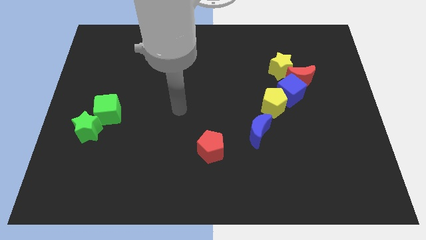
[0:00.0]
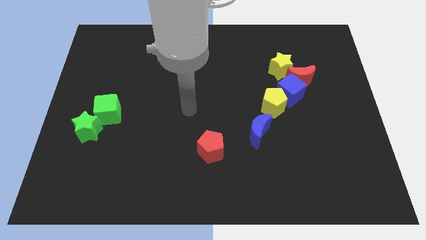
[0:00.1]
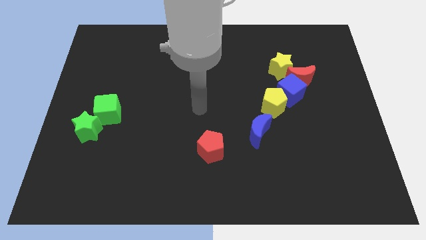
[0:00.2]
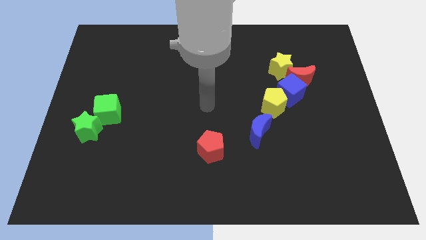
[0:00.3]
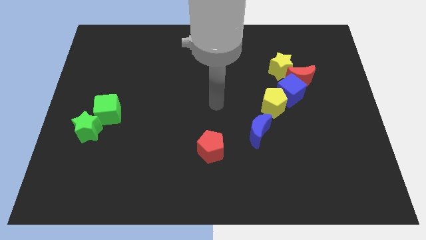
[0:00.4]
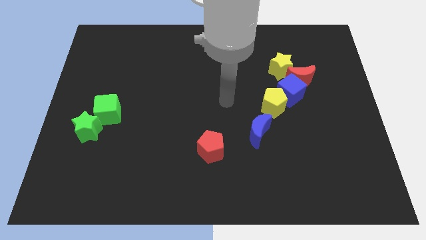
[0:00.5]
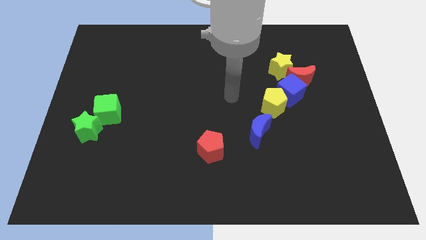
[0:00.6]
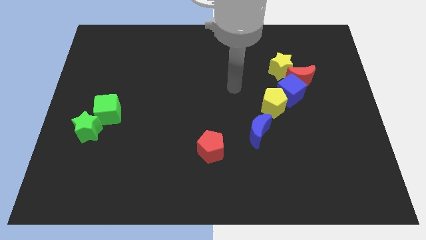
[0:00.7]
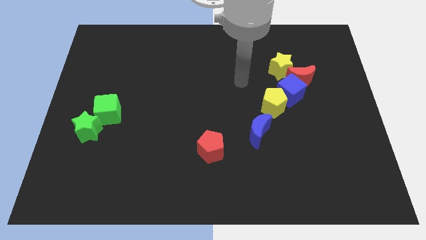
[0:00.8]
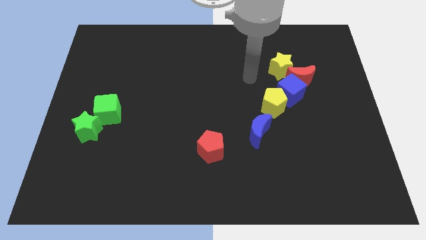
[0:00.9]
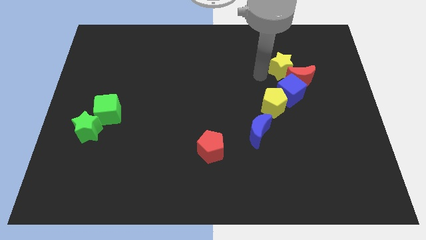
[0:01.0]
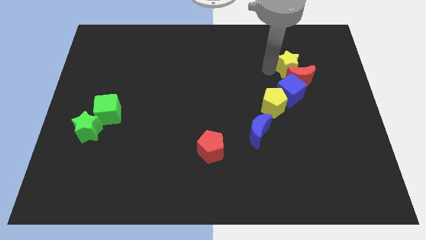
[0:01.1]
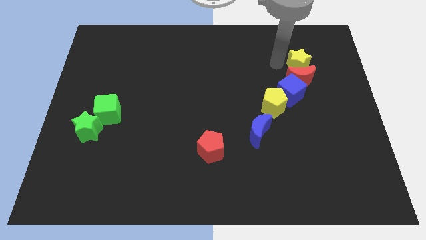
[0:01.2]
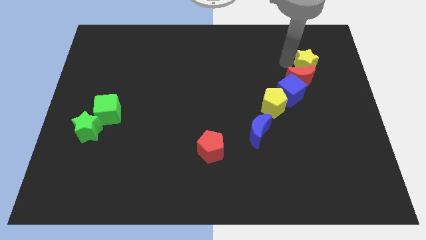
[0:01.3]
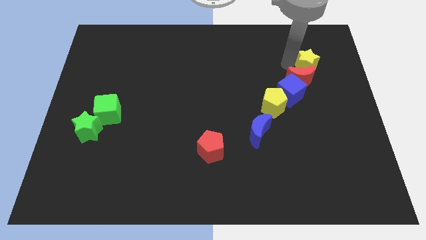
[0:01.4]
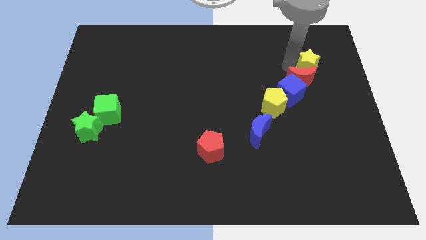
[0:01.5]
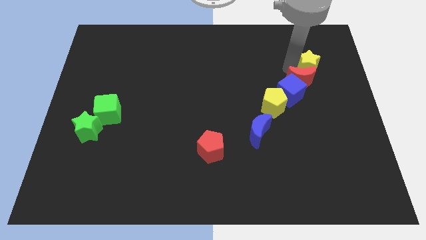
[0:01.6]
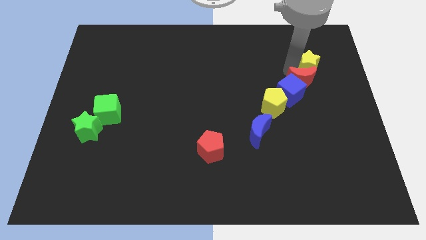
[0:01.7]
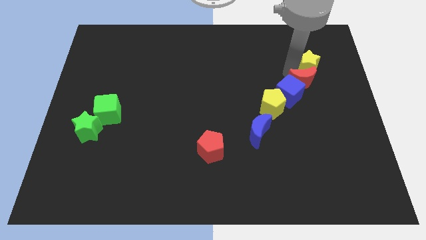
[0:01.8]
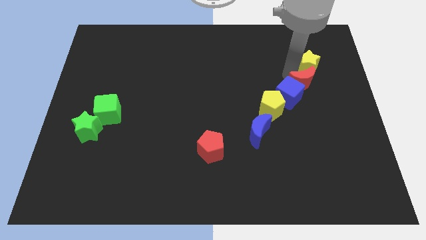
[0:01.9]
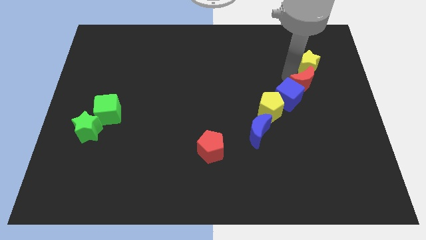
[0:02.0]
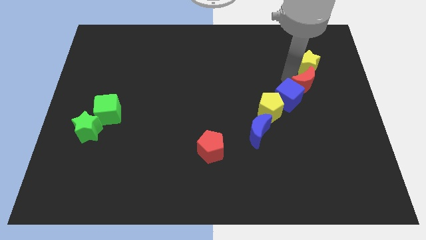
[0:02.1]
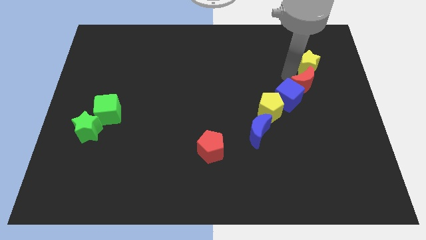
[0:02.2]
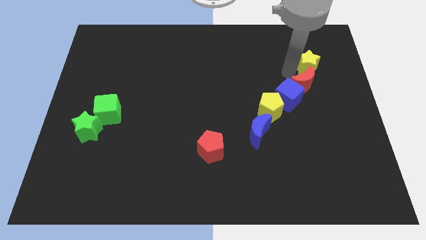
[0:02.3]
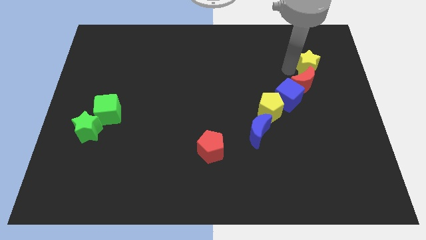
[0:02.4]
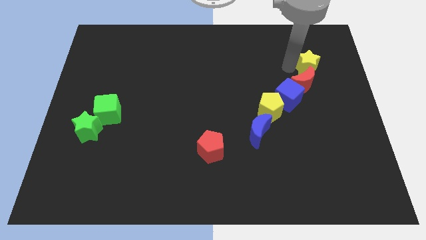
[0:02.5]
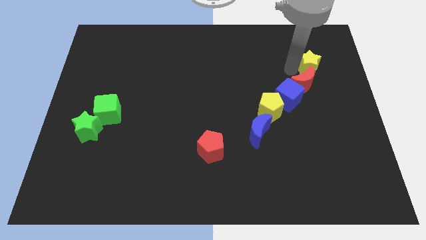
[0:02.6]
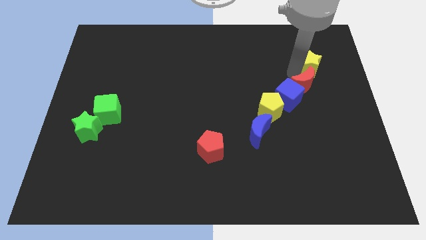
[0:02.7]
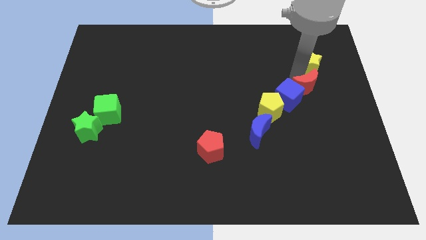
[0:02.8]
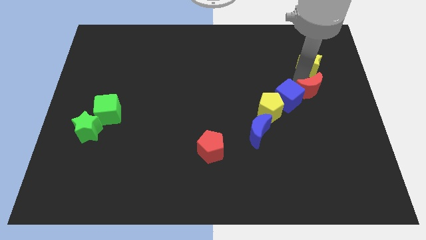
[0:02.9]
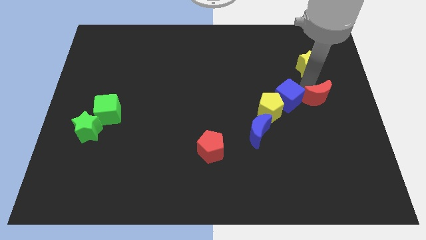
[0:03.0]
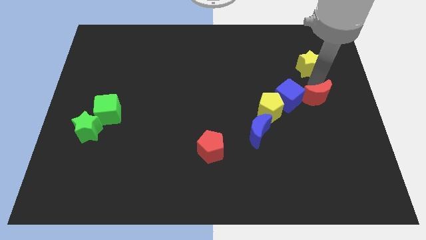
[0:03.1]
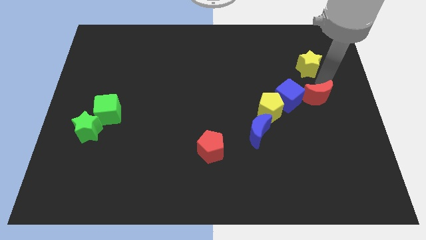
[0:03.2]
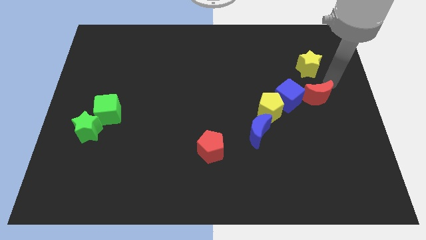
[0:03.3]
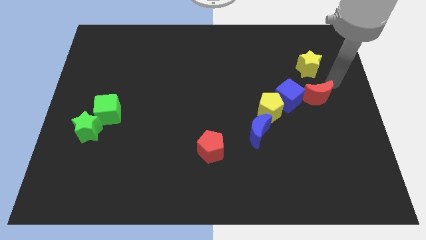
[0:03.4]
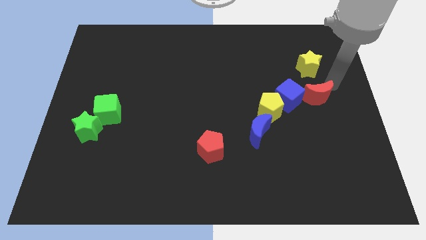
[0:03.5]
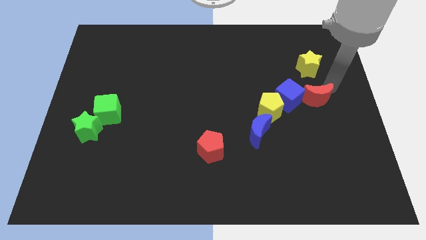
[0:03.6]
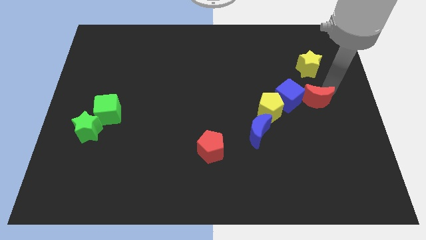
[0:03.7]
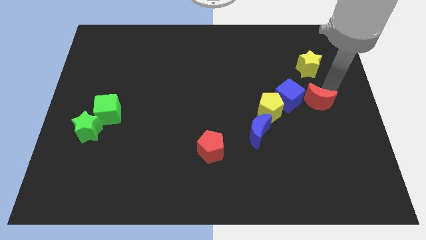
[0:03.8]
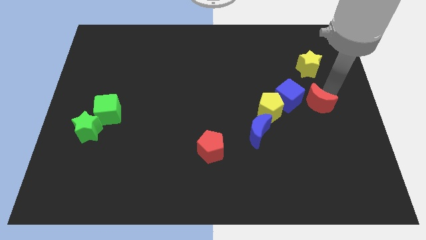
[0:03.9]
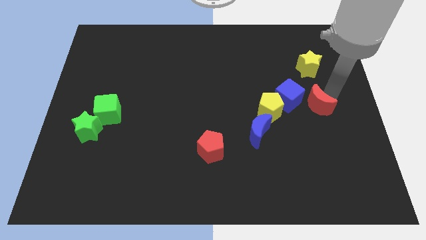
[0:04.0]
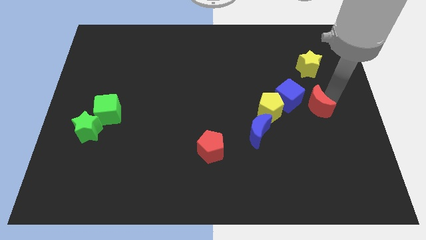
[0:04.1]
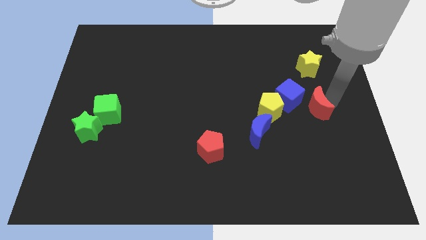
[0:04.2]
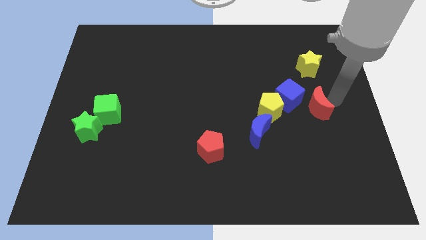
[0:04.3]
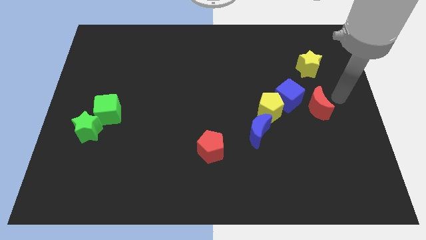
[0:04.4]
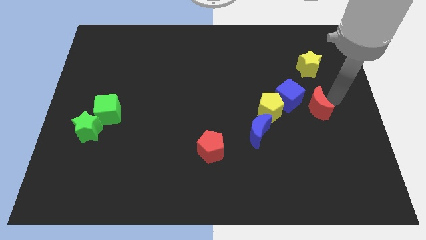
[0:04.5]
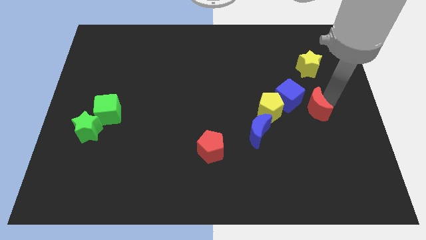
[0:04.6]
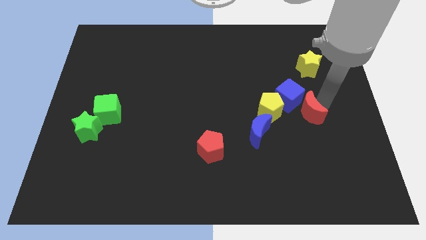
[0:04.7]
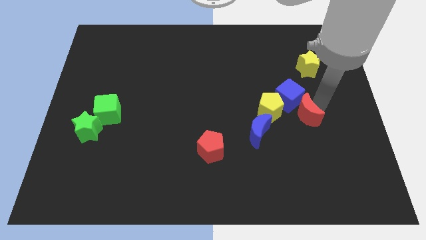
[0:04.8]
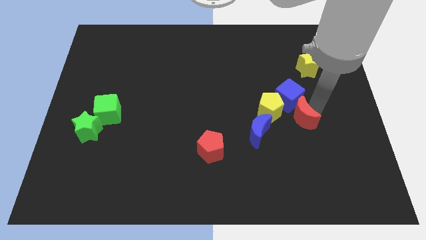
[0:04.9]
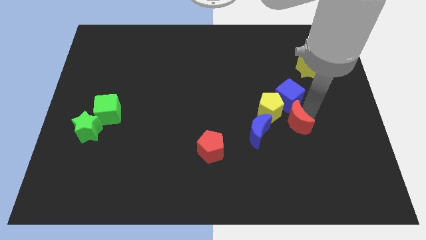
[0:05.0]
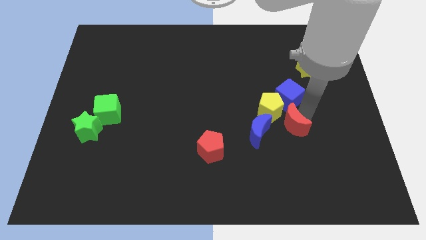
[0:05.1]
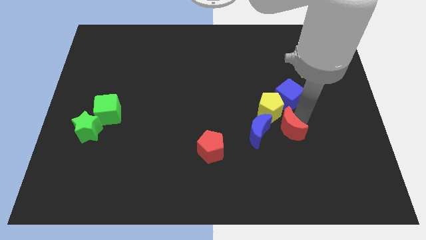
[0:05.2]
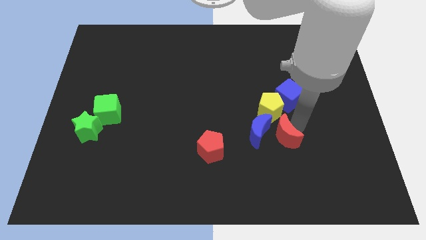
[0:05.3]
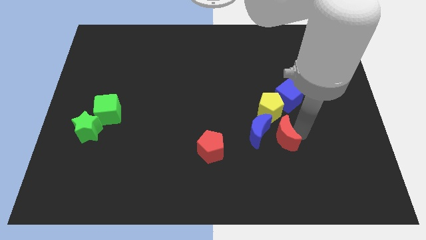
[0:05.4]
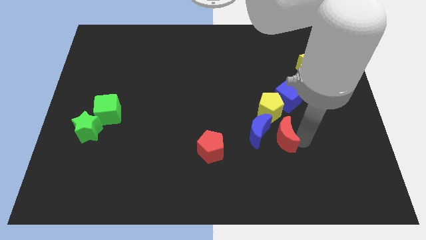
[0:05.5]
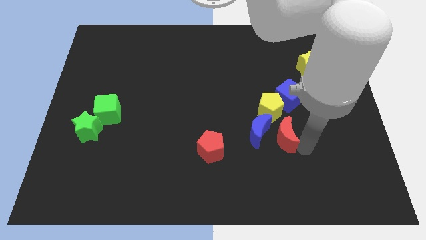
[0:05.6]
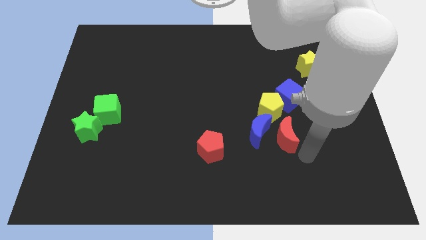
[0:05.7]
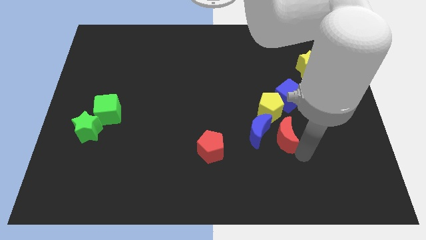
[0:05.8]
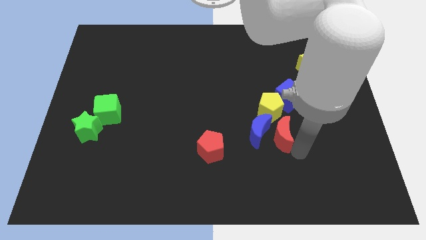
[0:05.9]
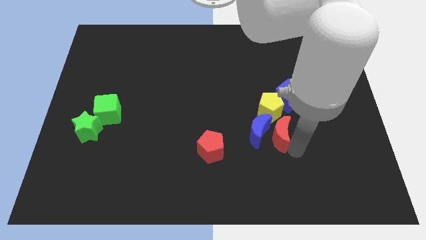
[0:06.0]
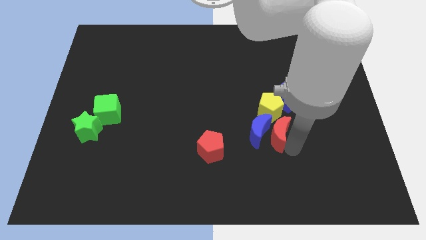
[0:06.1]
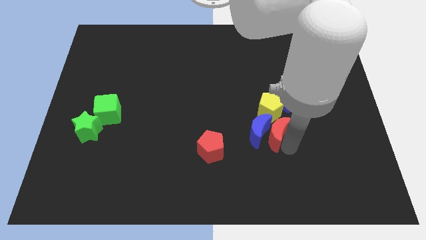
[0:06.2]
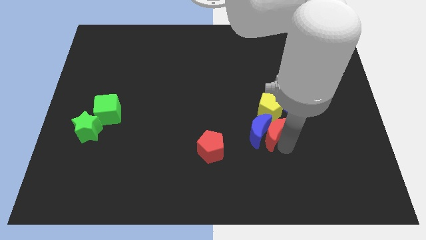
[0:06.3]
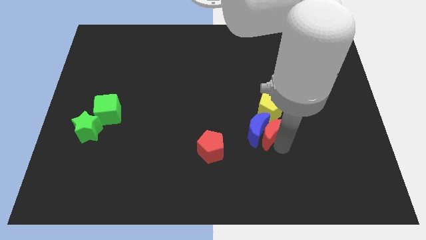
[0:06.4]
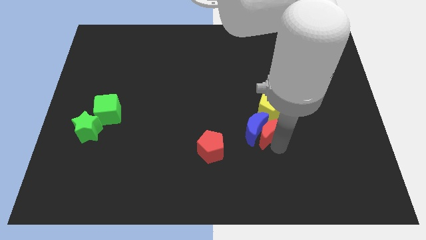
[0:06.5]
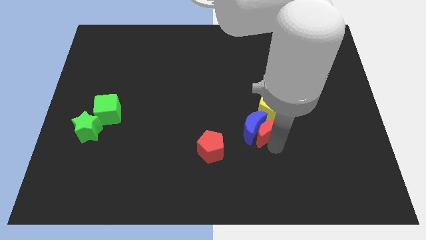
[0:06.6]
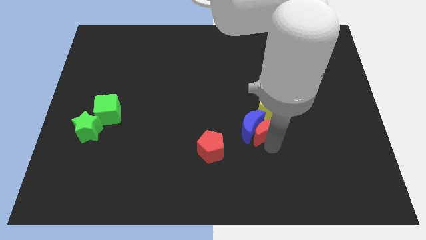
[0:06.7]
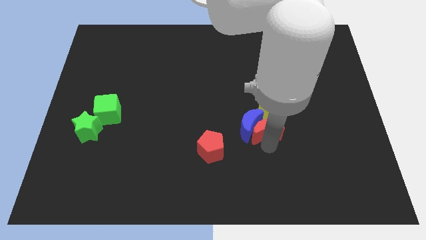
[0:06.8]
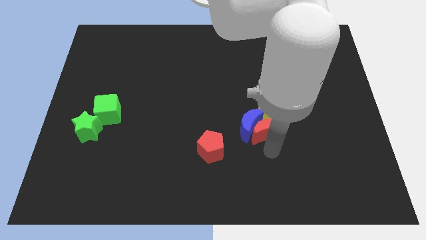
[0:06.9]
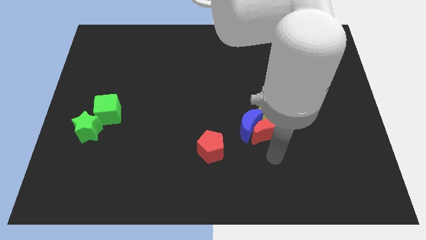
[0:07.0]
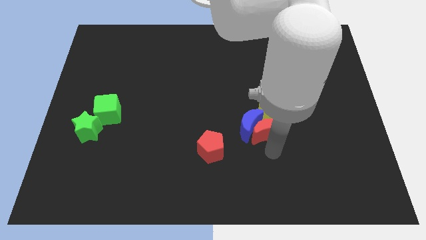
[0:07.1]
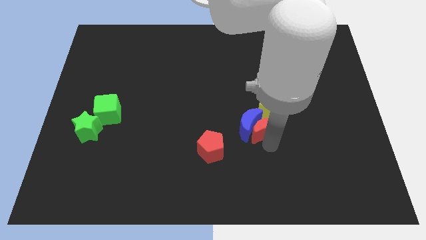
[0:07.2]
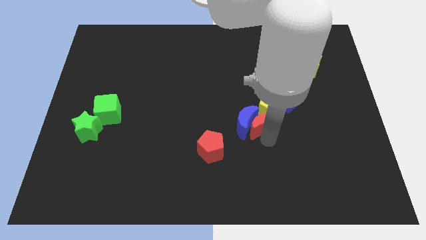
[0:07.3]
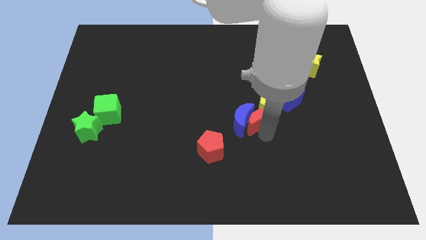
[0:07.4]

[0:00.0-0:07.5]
put the red moon to the middle
